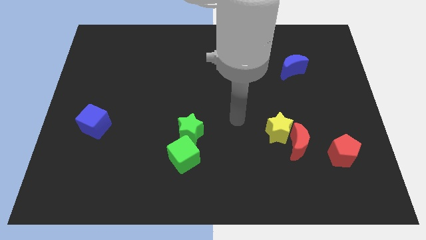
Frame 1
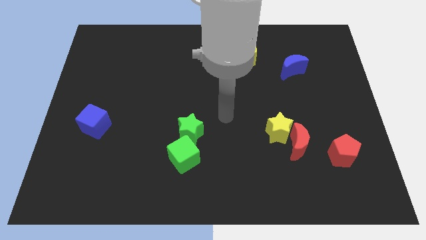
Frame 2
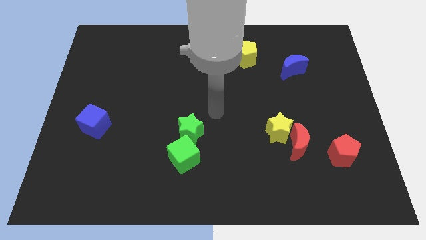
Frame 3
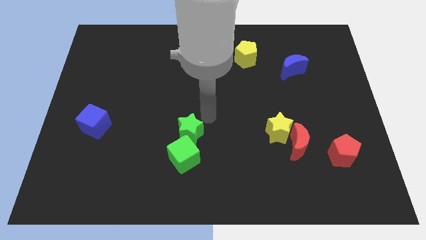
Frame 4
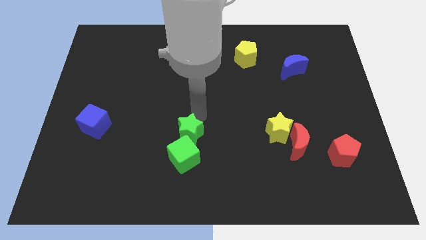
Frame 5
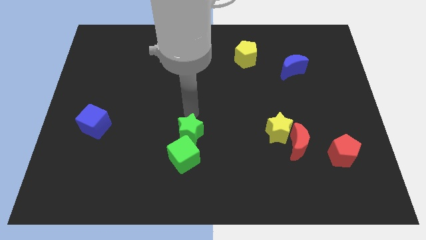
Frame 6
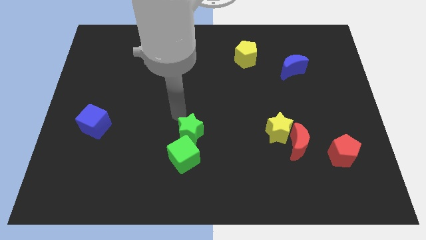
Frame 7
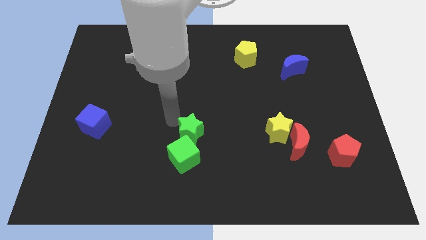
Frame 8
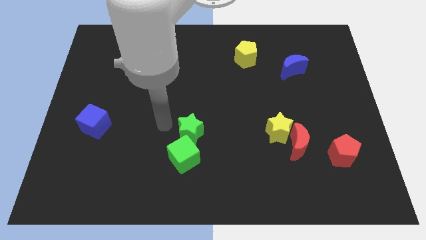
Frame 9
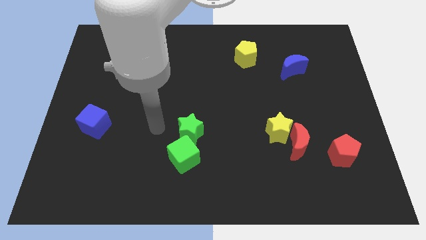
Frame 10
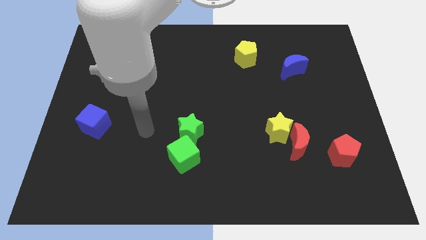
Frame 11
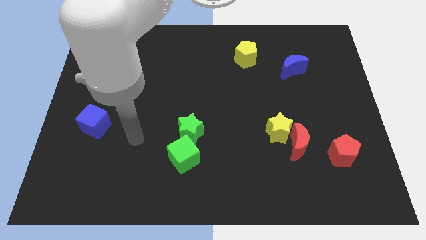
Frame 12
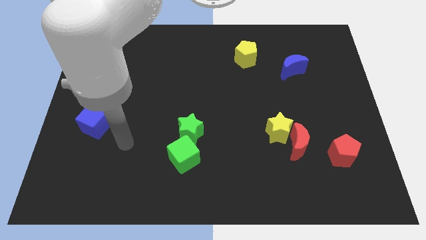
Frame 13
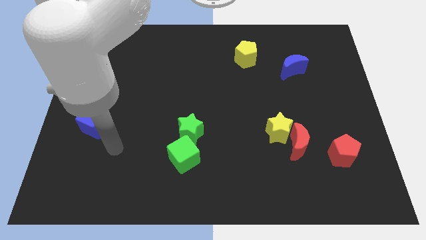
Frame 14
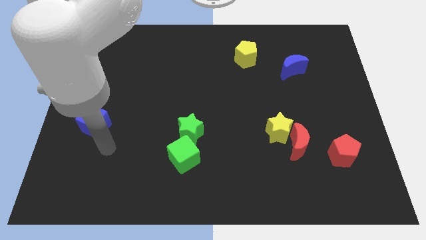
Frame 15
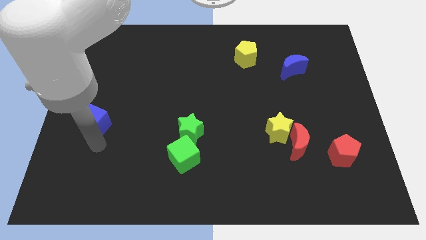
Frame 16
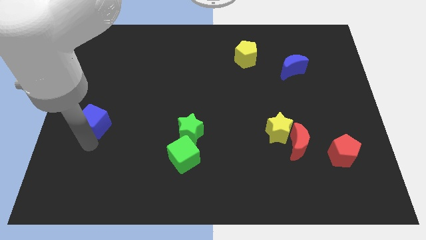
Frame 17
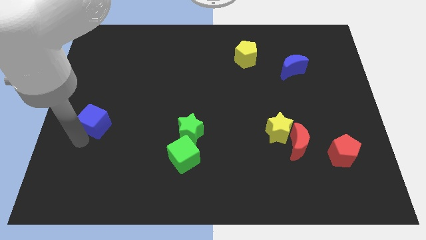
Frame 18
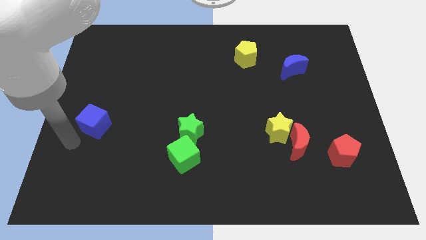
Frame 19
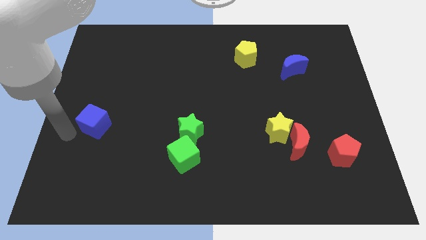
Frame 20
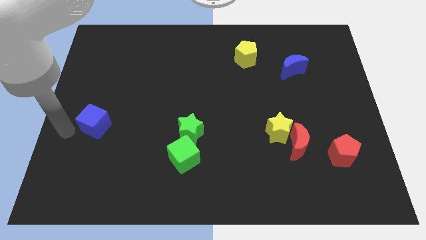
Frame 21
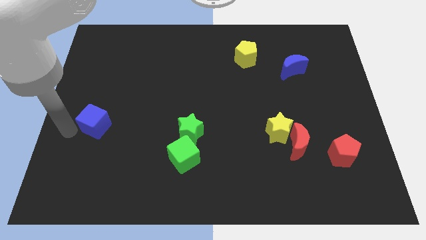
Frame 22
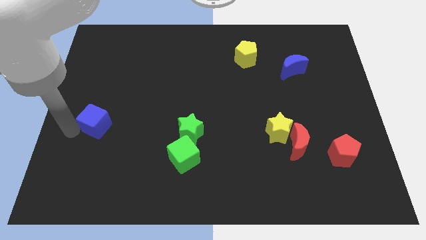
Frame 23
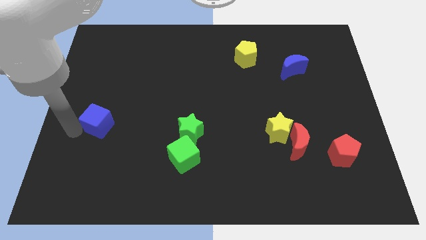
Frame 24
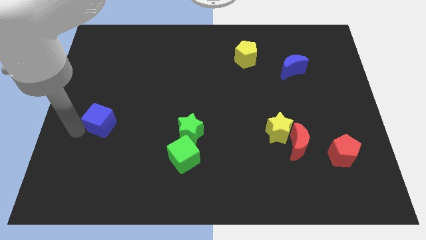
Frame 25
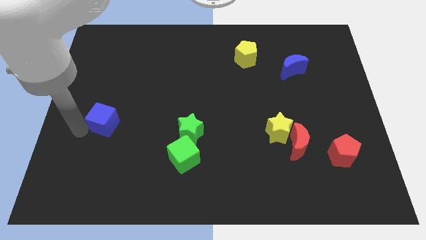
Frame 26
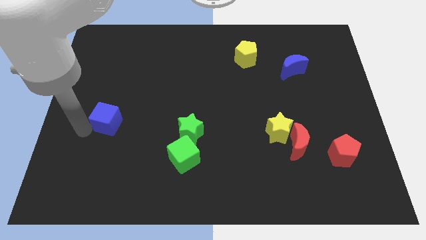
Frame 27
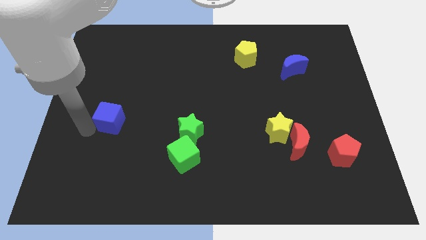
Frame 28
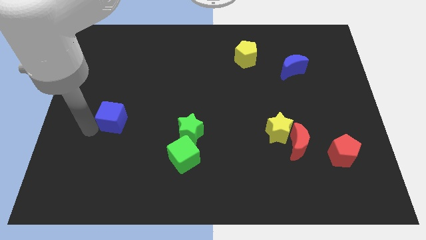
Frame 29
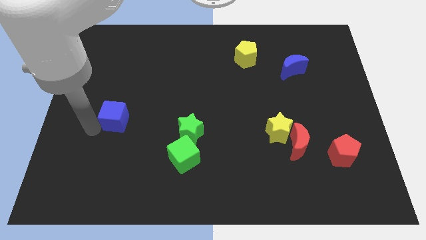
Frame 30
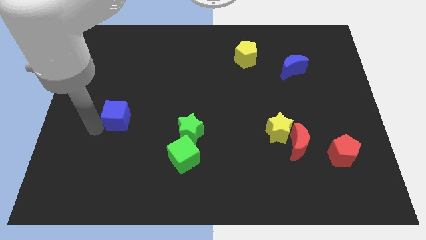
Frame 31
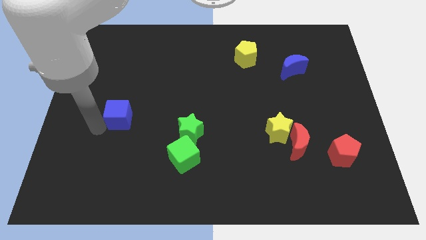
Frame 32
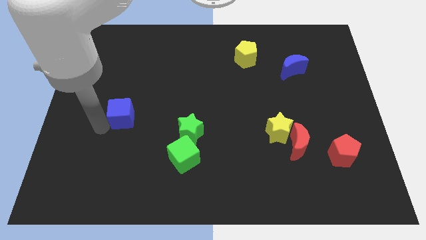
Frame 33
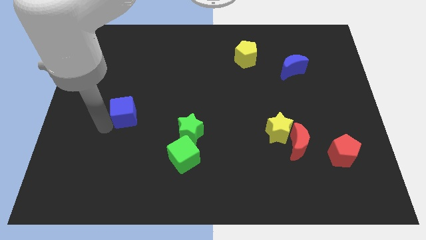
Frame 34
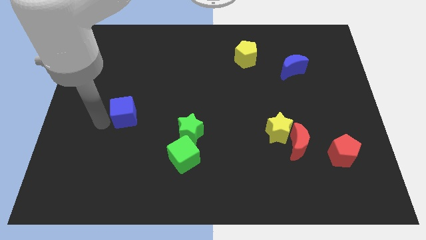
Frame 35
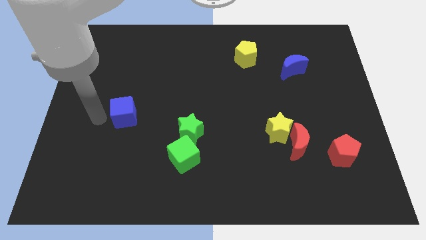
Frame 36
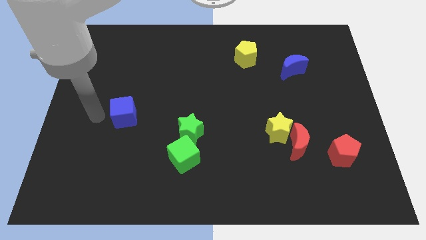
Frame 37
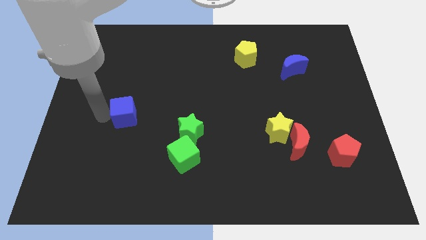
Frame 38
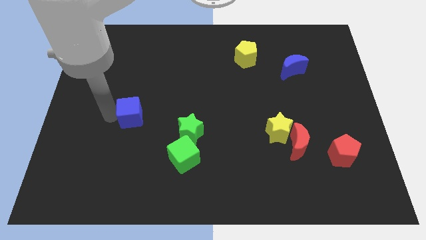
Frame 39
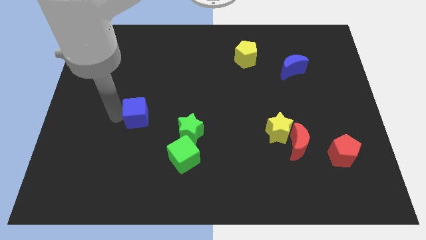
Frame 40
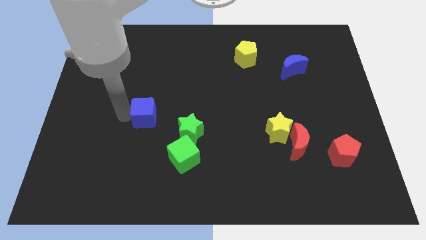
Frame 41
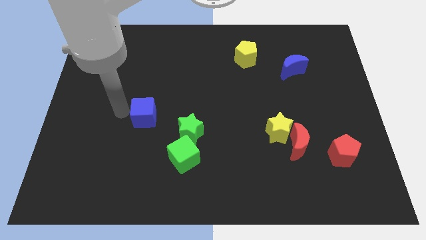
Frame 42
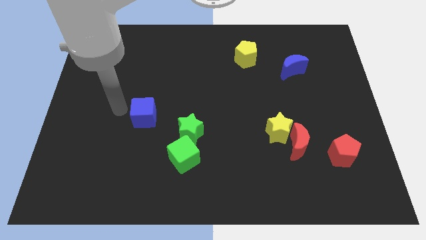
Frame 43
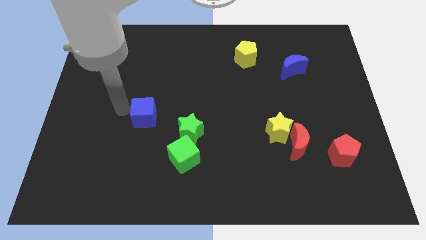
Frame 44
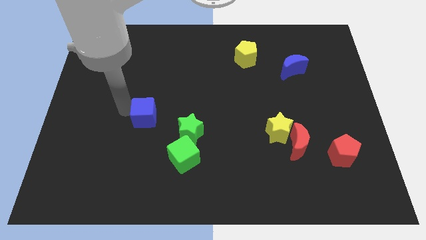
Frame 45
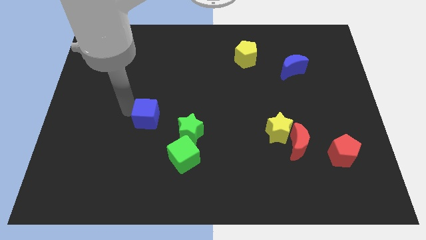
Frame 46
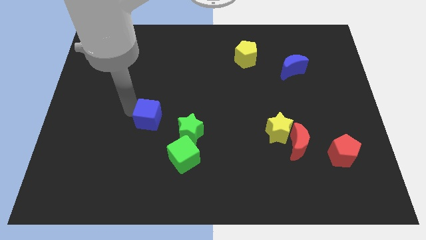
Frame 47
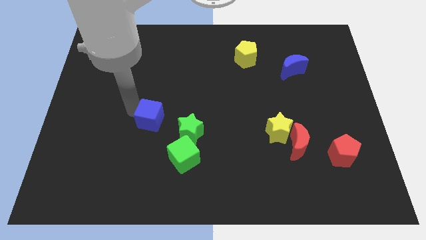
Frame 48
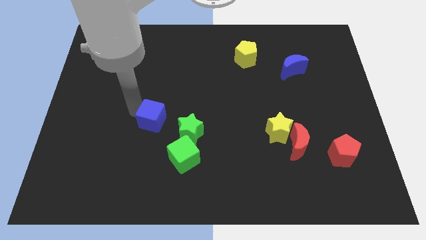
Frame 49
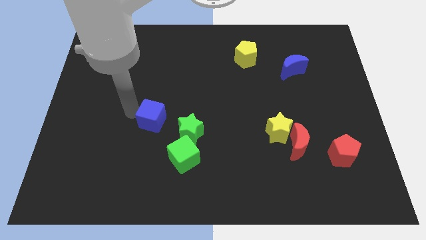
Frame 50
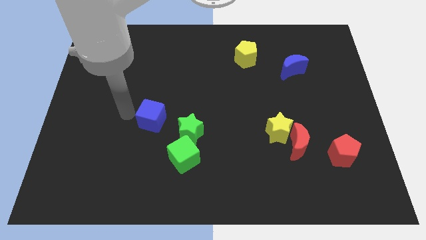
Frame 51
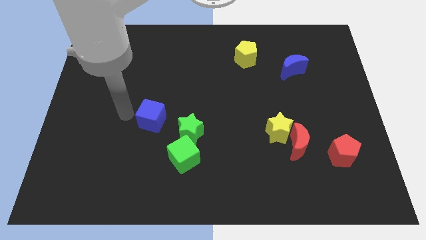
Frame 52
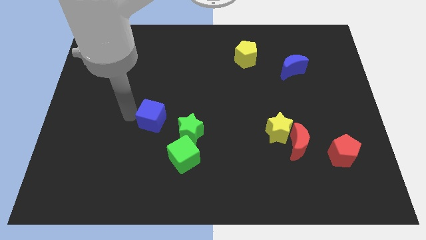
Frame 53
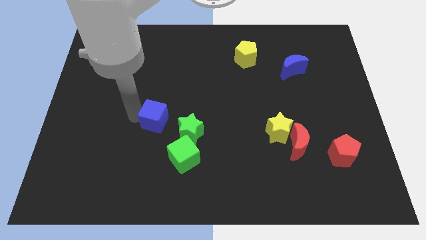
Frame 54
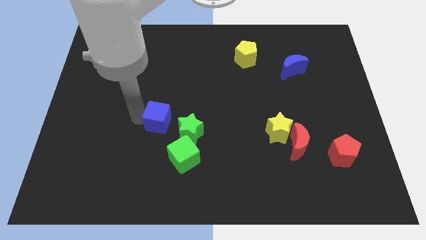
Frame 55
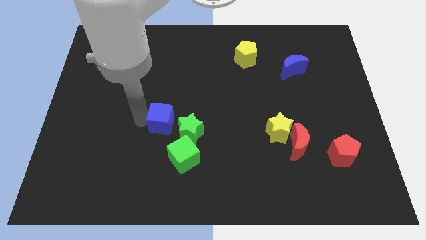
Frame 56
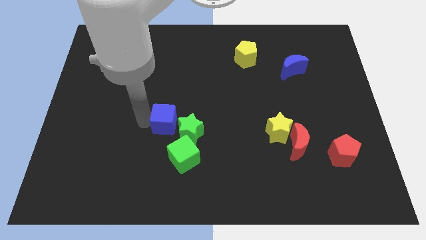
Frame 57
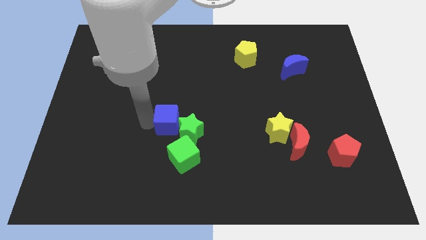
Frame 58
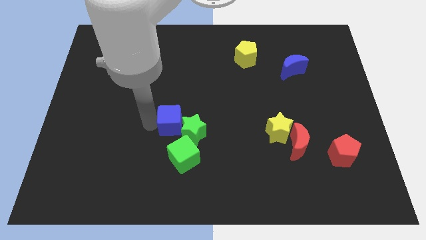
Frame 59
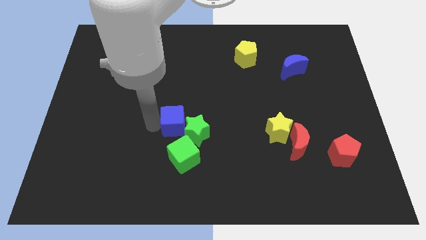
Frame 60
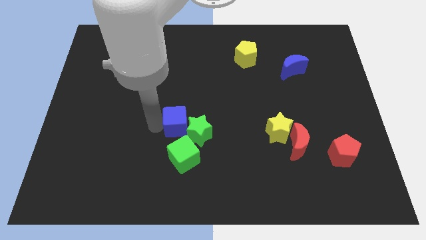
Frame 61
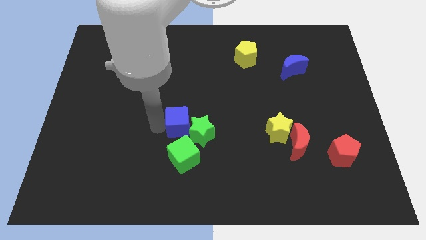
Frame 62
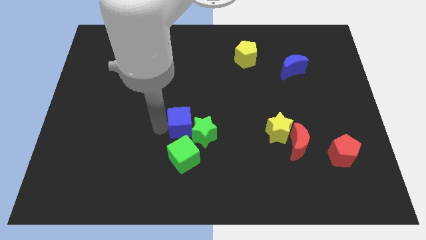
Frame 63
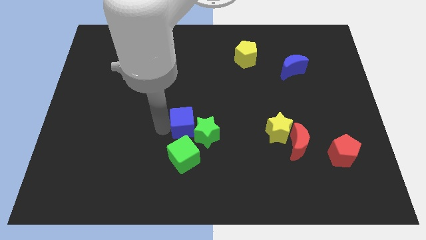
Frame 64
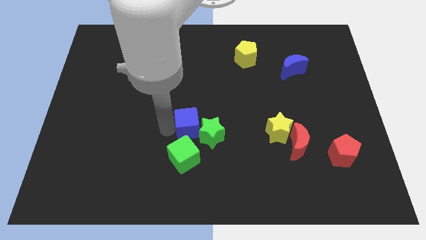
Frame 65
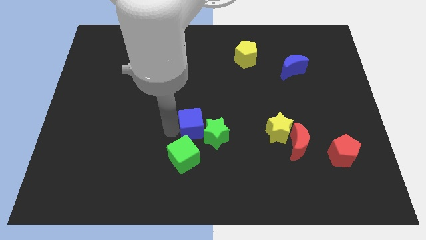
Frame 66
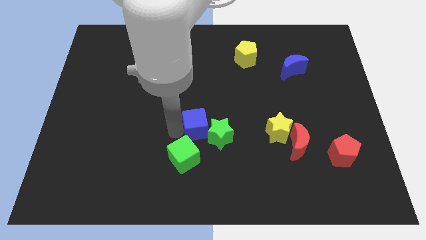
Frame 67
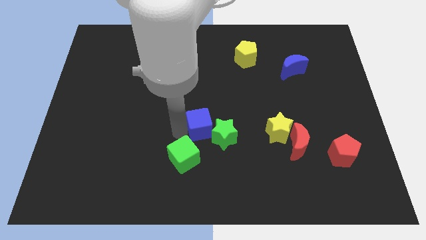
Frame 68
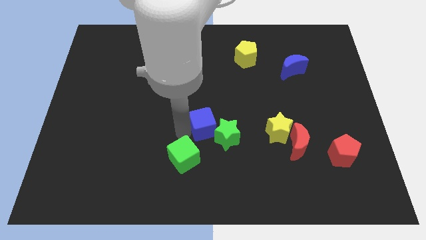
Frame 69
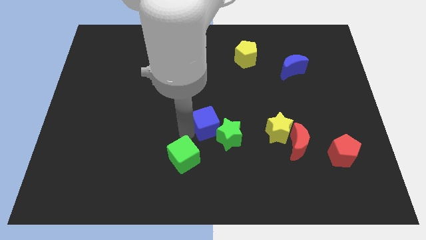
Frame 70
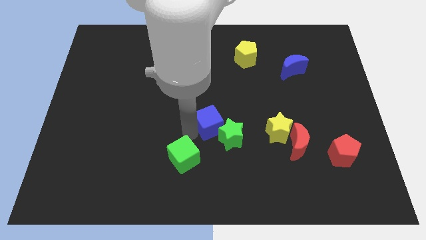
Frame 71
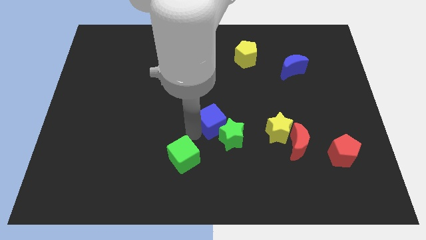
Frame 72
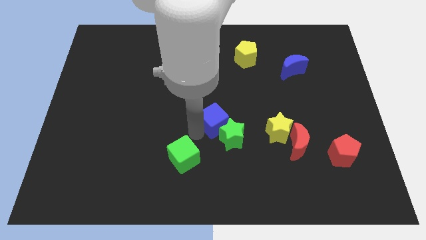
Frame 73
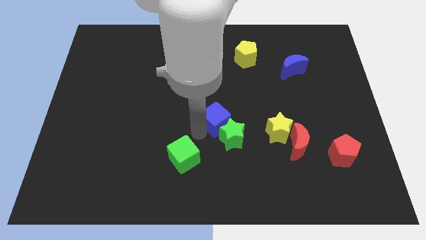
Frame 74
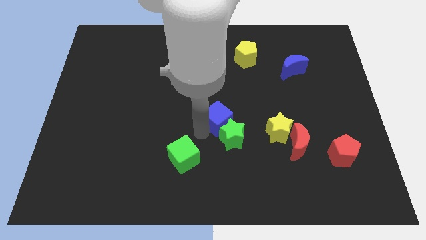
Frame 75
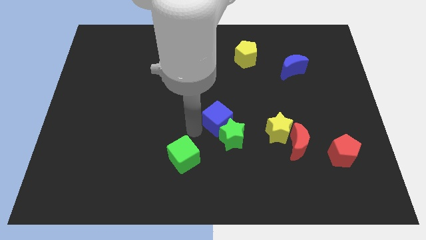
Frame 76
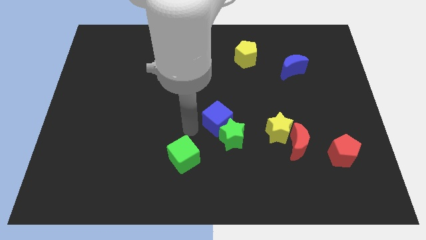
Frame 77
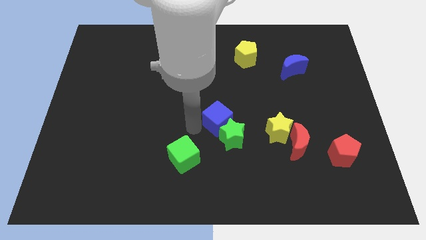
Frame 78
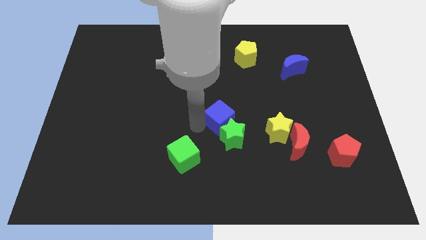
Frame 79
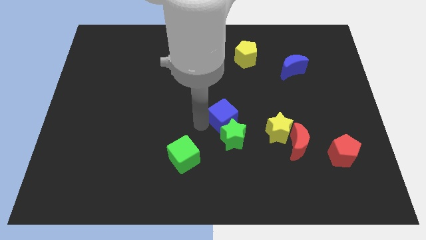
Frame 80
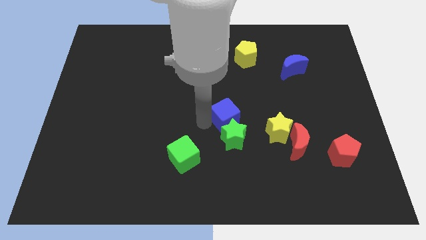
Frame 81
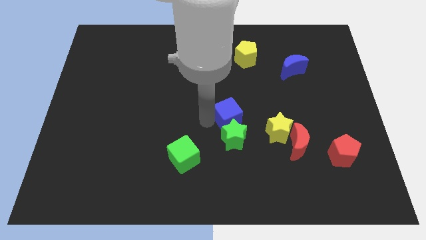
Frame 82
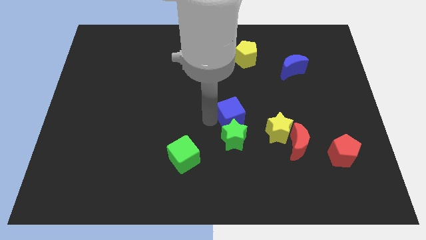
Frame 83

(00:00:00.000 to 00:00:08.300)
move the blue cube to the top left of the yellow star
